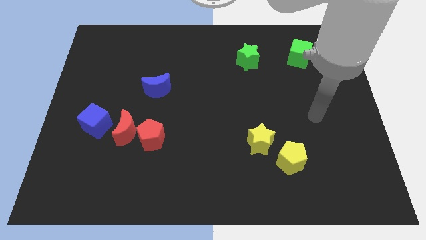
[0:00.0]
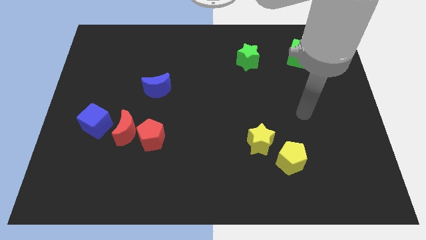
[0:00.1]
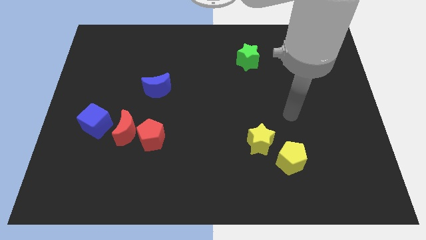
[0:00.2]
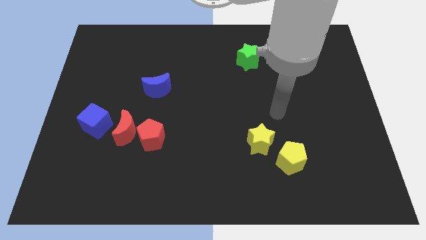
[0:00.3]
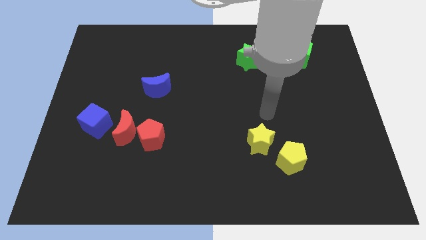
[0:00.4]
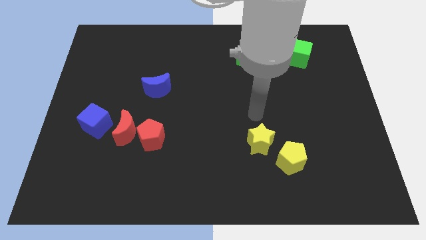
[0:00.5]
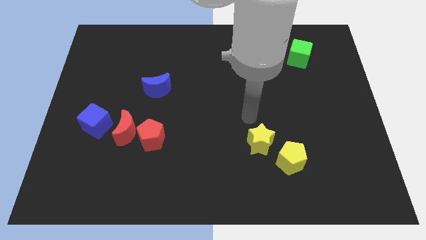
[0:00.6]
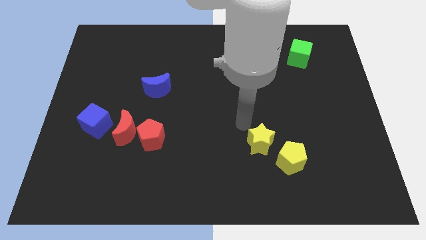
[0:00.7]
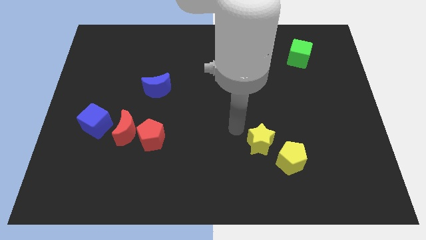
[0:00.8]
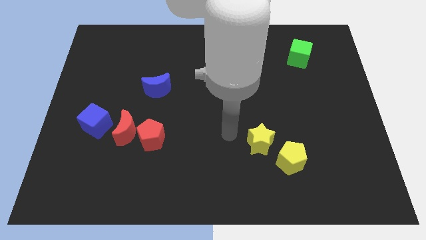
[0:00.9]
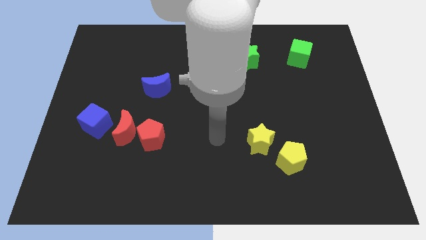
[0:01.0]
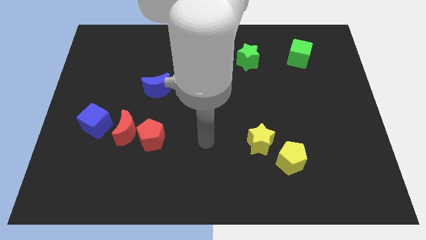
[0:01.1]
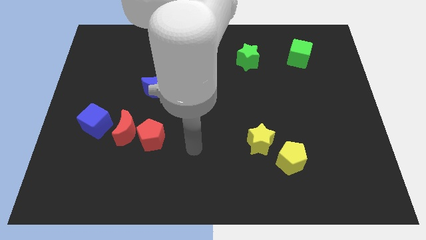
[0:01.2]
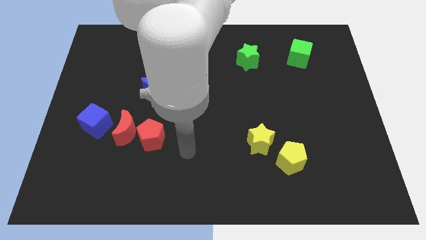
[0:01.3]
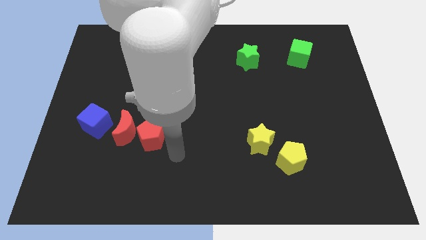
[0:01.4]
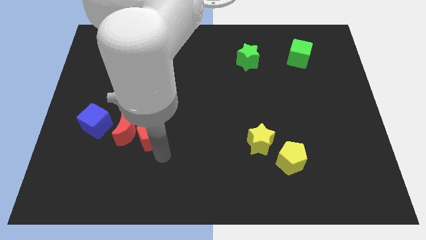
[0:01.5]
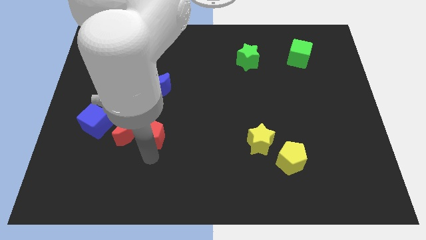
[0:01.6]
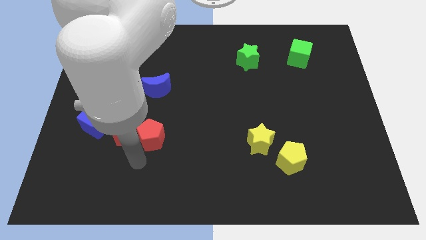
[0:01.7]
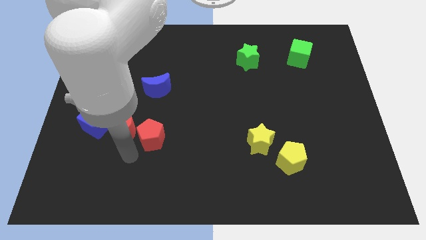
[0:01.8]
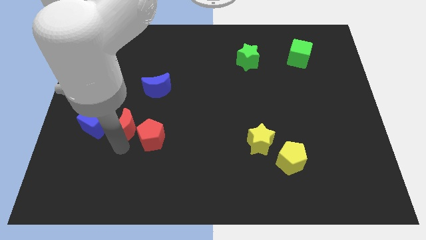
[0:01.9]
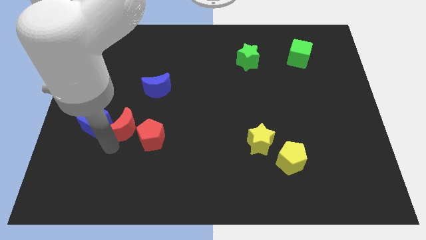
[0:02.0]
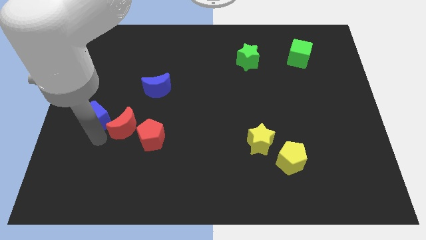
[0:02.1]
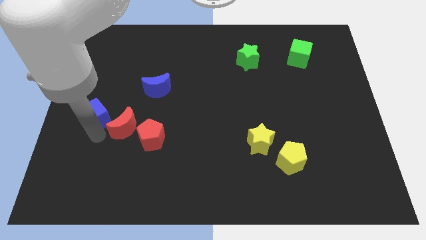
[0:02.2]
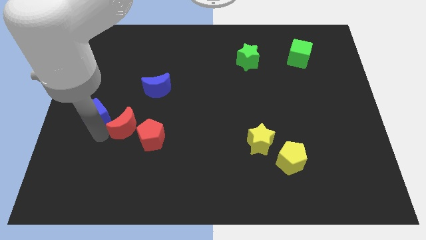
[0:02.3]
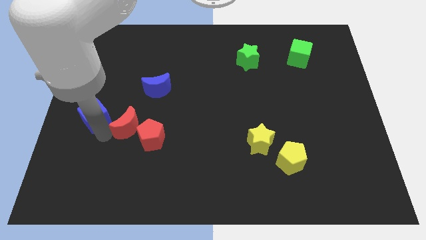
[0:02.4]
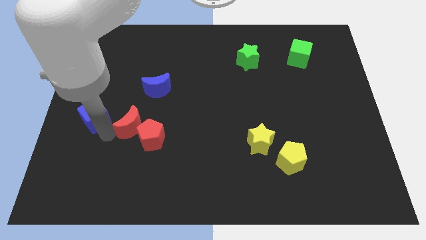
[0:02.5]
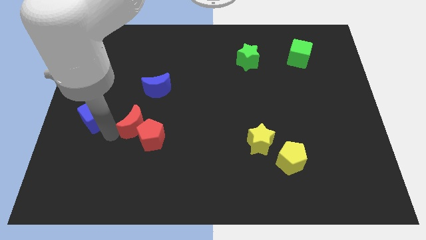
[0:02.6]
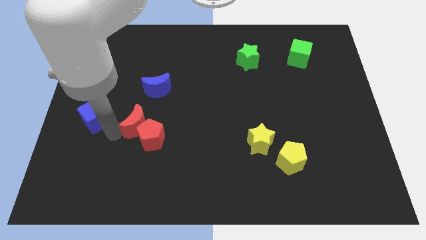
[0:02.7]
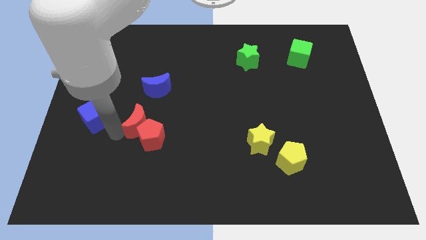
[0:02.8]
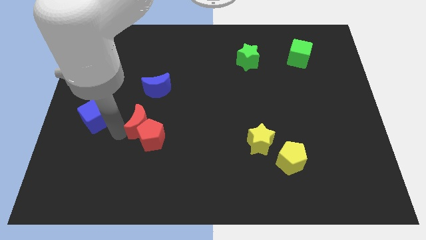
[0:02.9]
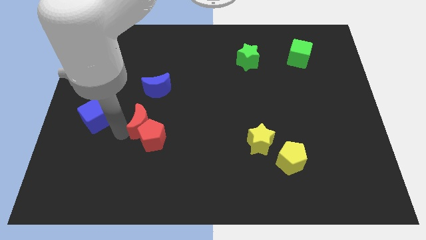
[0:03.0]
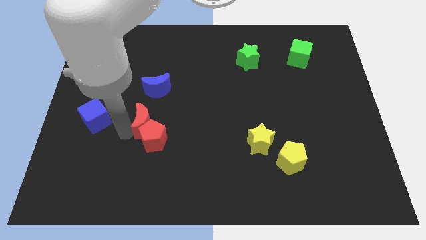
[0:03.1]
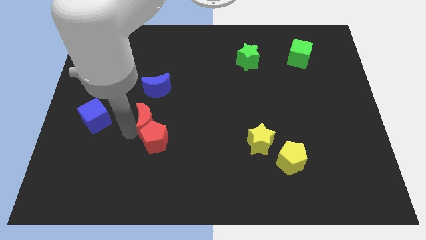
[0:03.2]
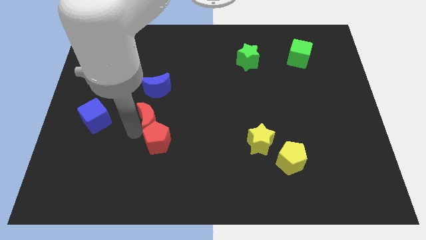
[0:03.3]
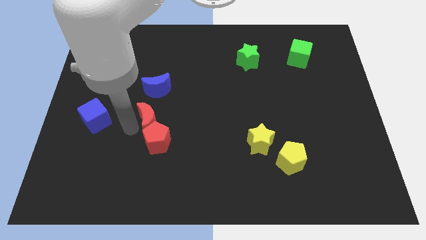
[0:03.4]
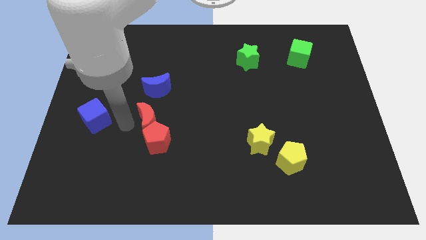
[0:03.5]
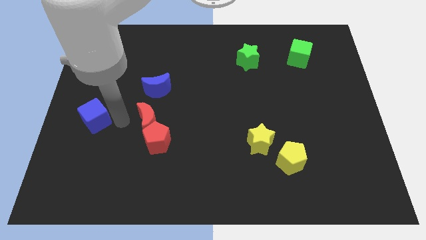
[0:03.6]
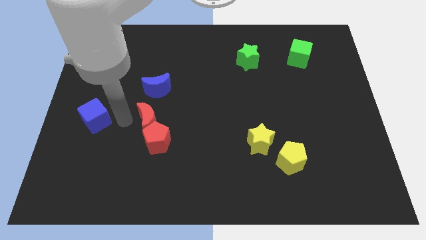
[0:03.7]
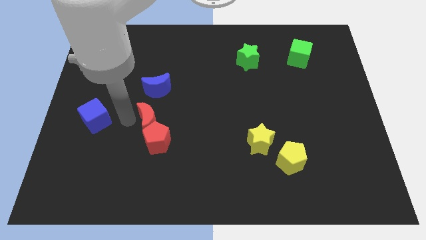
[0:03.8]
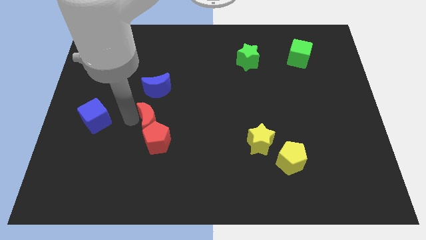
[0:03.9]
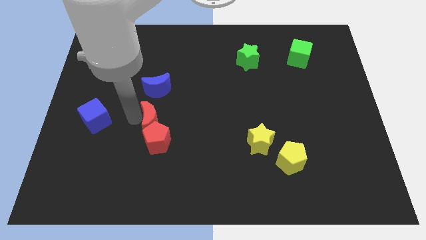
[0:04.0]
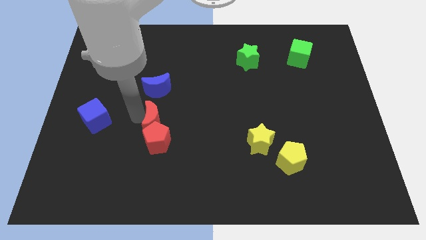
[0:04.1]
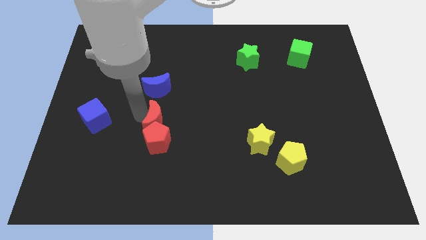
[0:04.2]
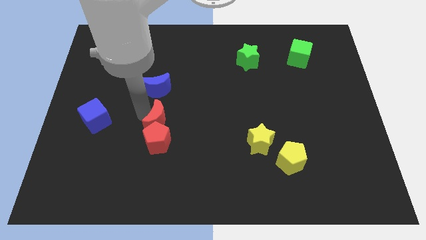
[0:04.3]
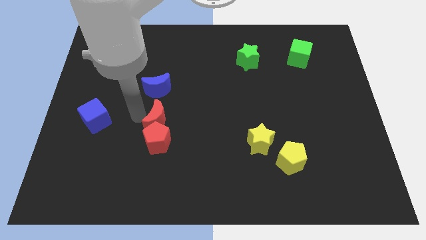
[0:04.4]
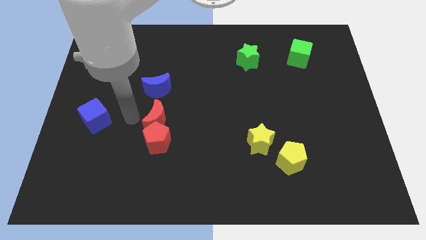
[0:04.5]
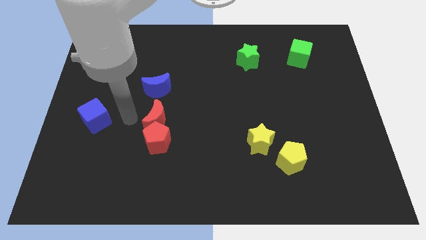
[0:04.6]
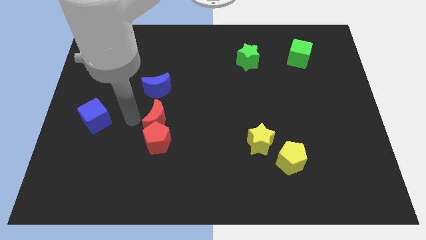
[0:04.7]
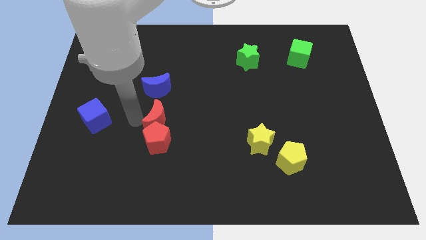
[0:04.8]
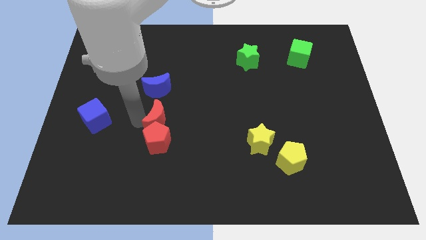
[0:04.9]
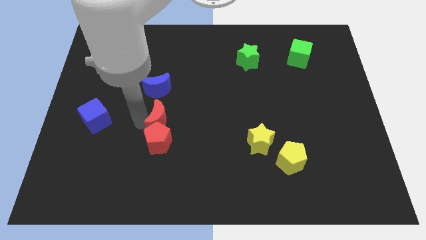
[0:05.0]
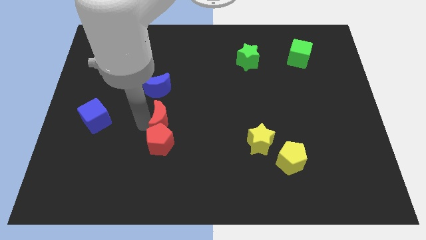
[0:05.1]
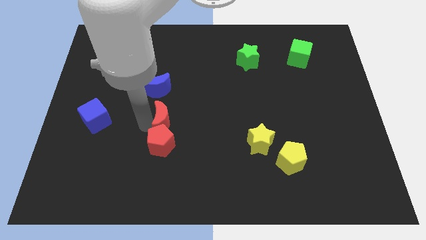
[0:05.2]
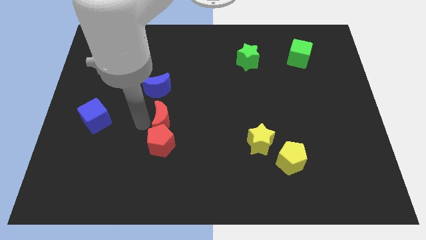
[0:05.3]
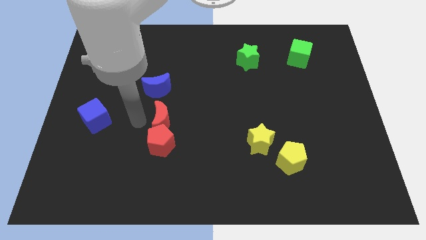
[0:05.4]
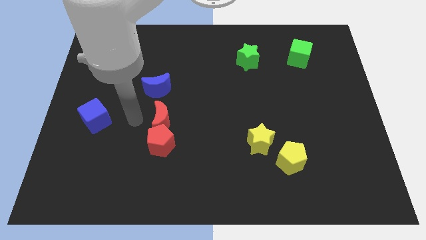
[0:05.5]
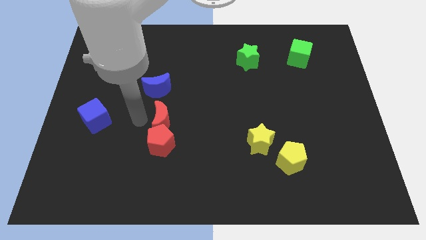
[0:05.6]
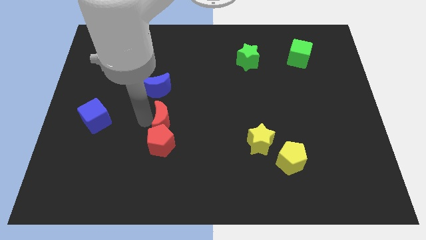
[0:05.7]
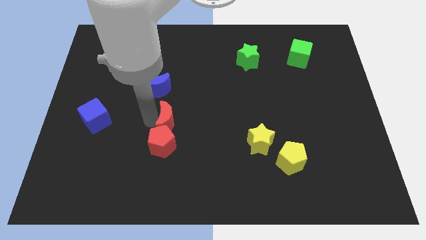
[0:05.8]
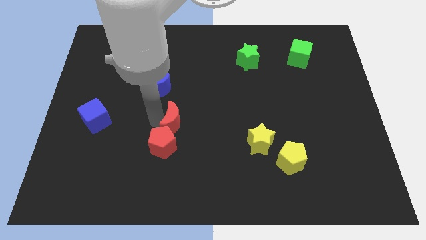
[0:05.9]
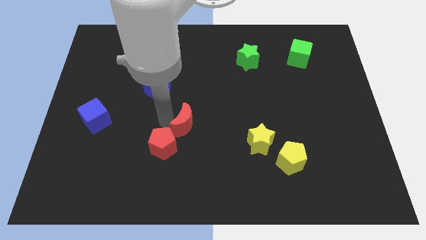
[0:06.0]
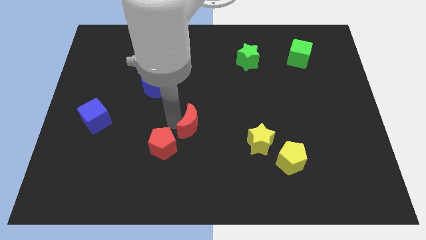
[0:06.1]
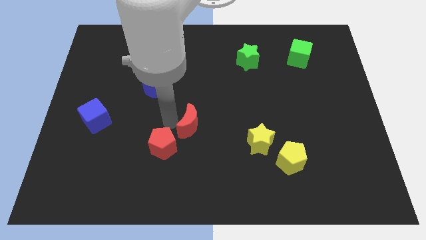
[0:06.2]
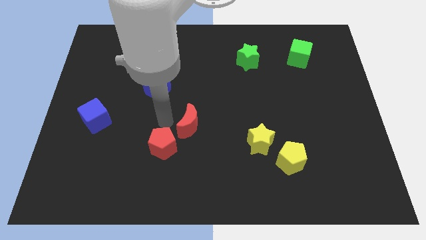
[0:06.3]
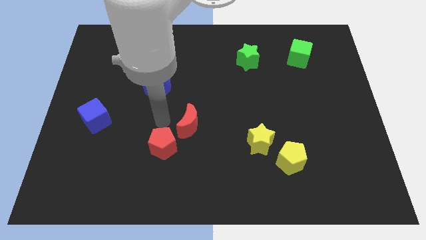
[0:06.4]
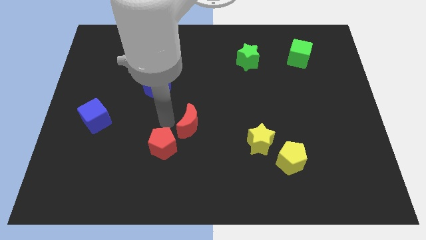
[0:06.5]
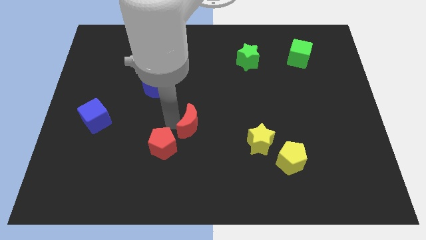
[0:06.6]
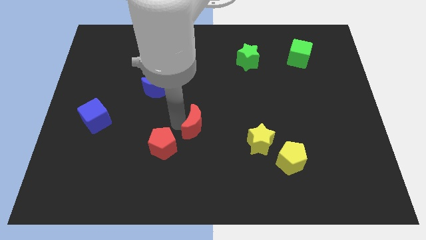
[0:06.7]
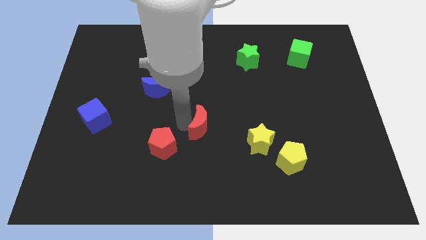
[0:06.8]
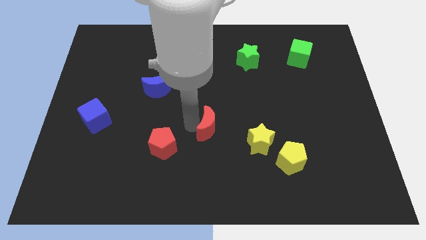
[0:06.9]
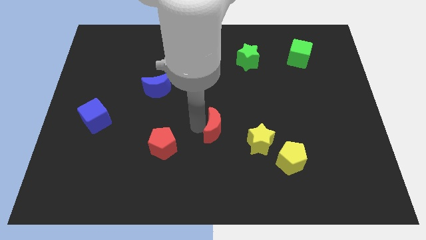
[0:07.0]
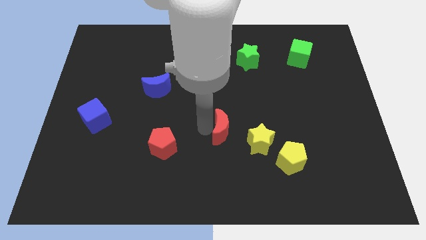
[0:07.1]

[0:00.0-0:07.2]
move the red moon to the right

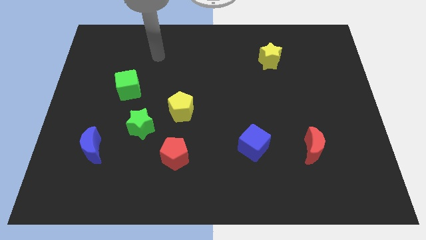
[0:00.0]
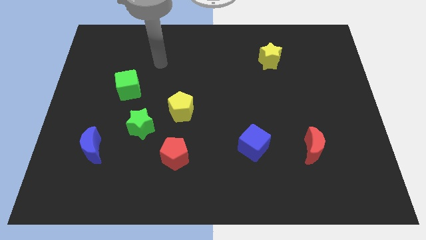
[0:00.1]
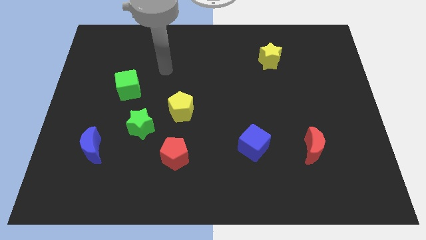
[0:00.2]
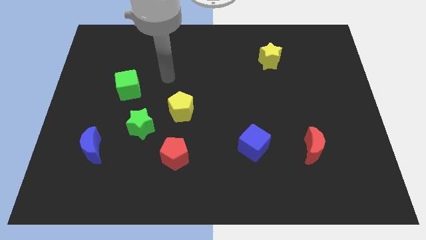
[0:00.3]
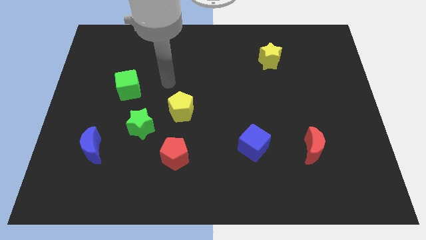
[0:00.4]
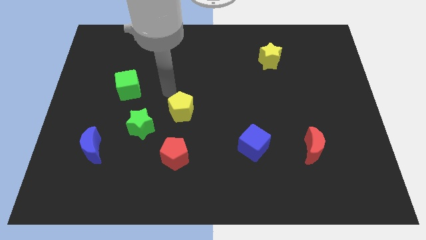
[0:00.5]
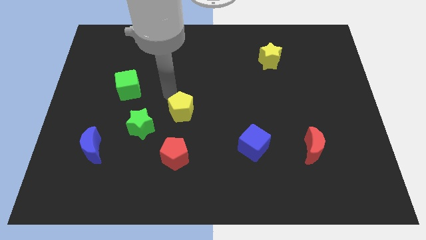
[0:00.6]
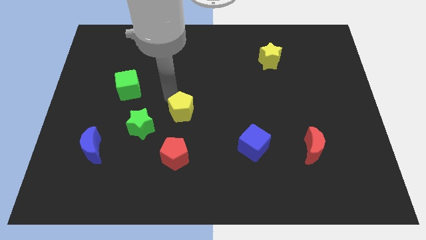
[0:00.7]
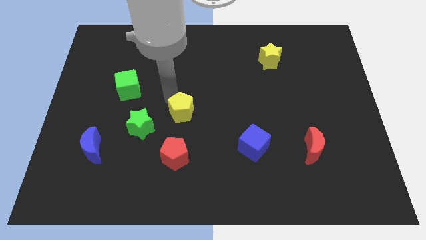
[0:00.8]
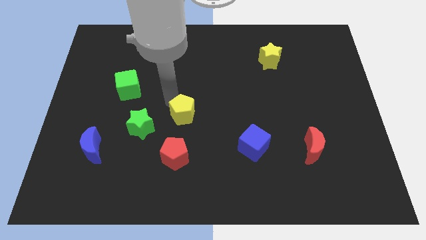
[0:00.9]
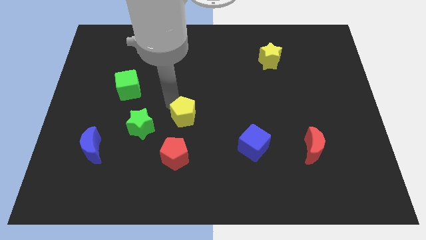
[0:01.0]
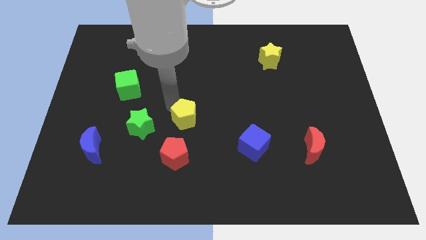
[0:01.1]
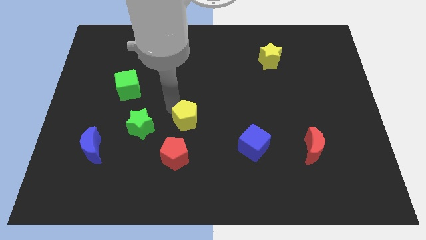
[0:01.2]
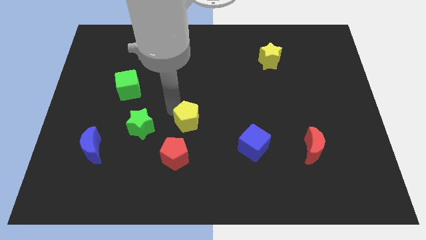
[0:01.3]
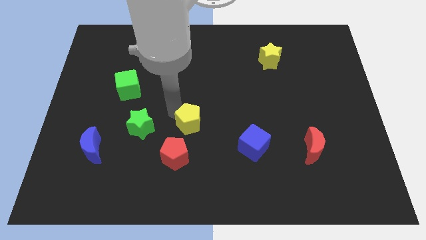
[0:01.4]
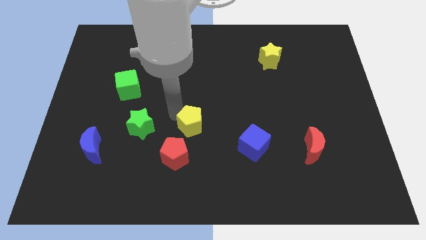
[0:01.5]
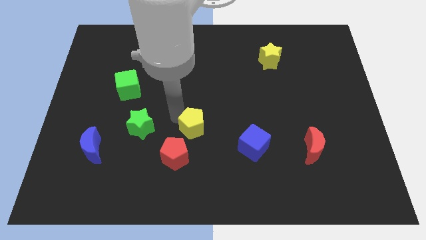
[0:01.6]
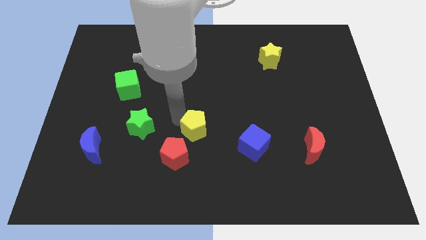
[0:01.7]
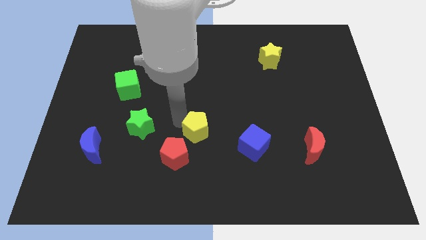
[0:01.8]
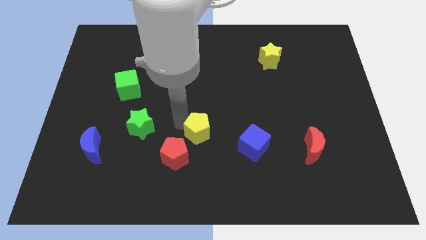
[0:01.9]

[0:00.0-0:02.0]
slightly slide the yellow pentagon diagonally down and to the right
